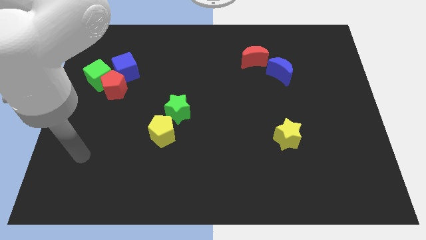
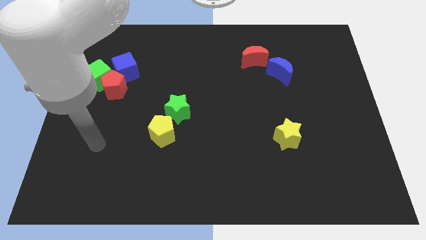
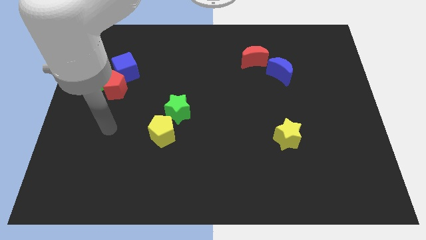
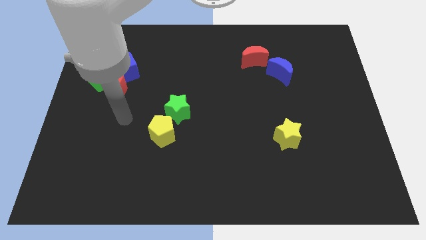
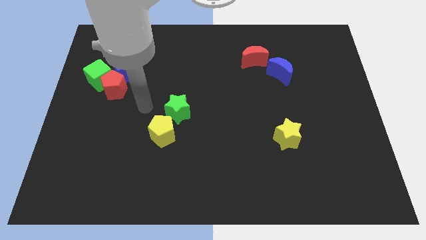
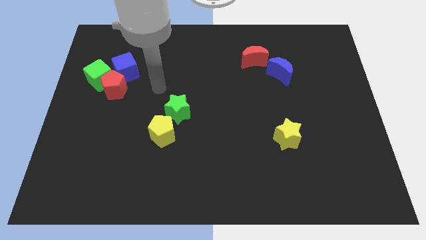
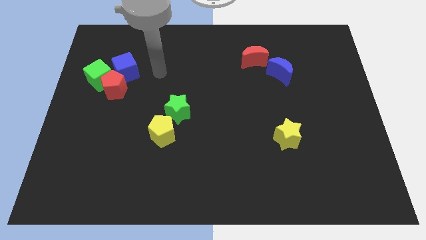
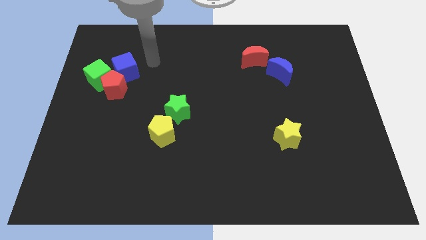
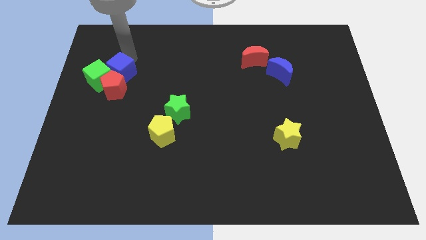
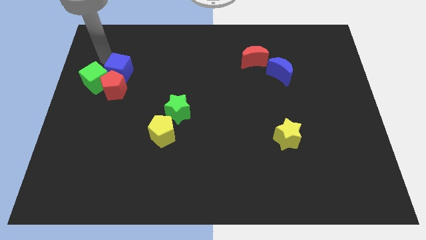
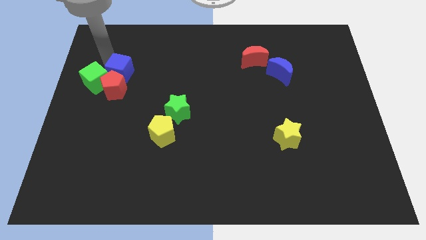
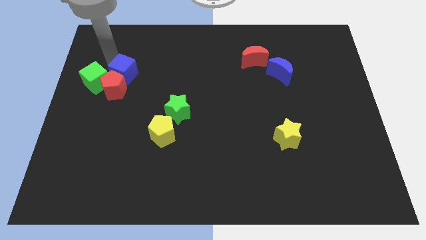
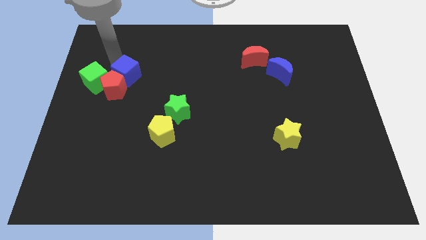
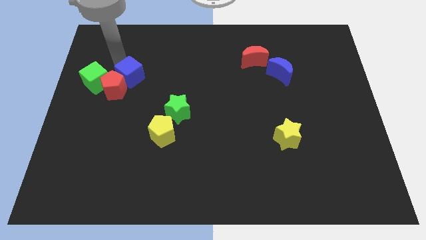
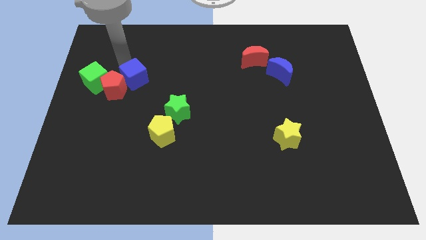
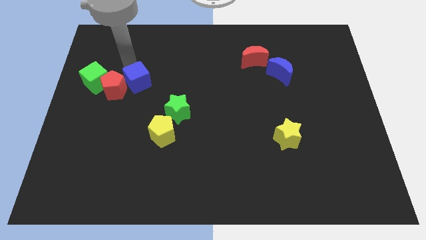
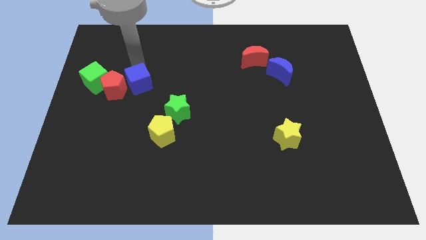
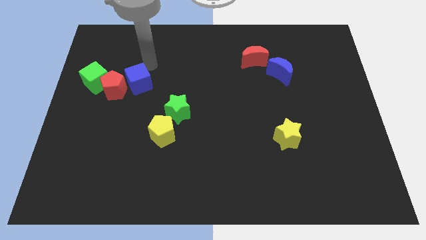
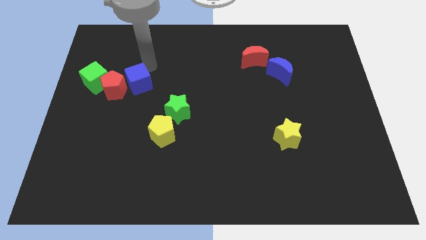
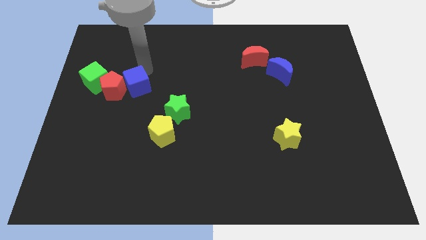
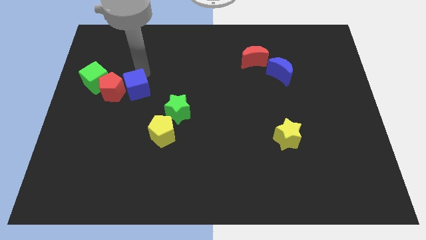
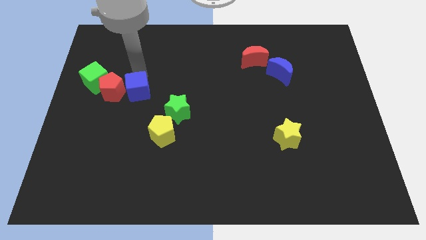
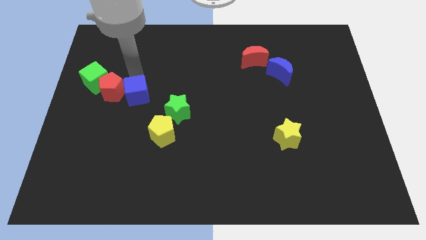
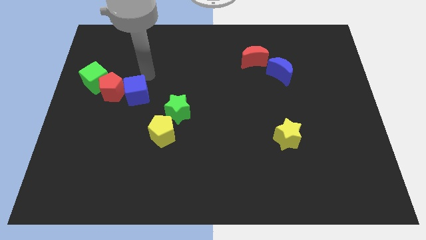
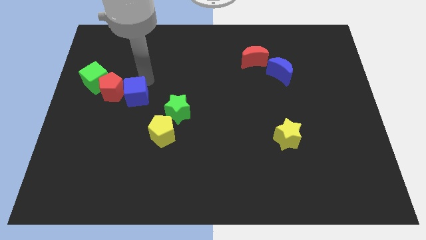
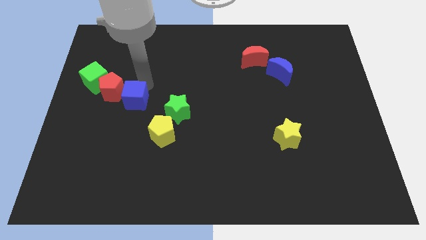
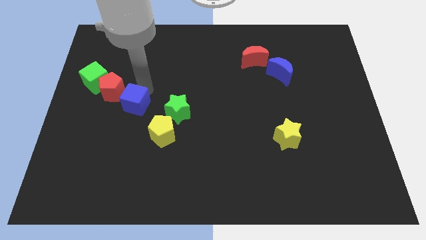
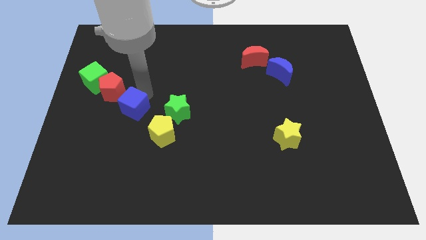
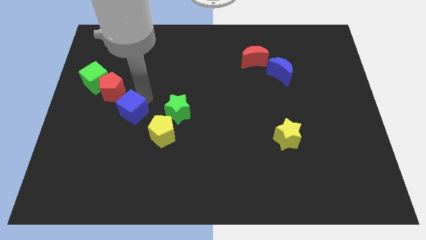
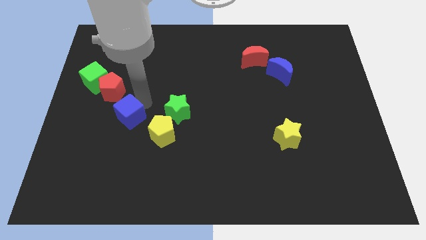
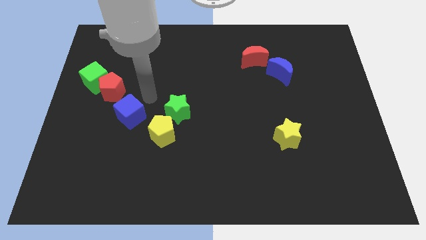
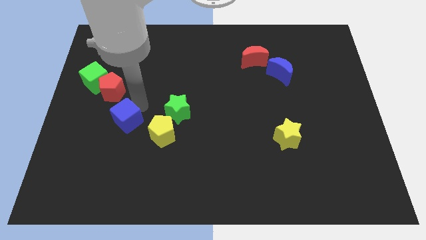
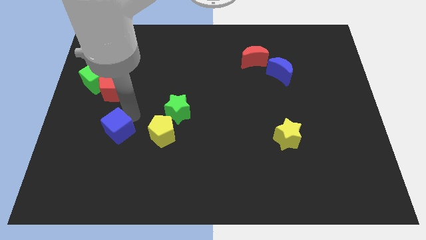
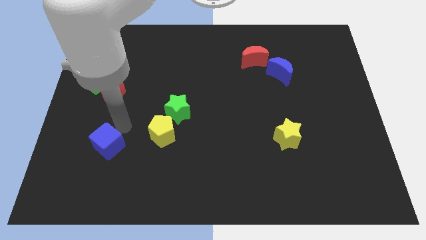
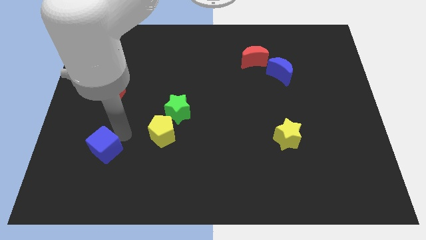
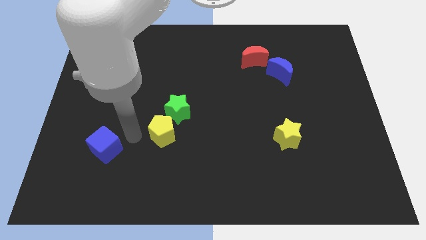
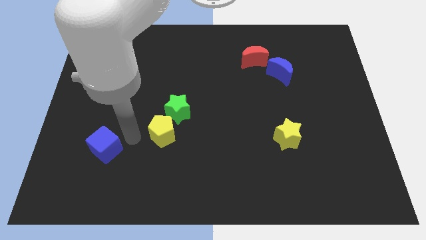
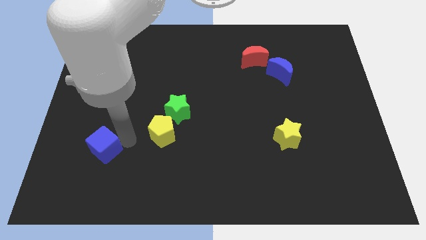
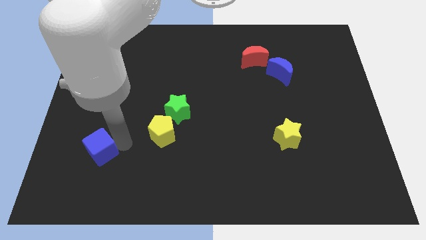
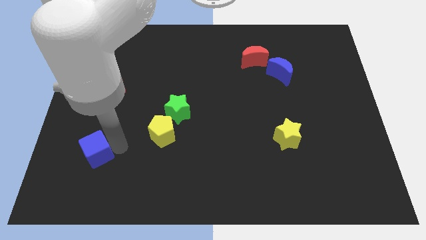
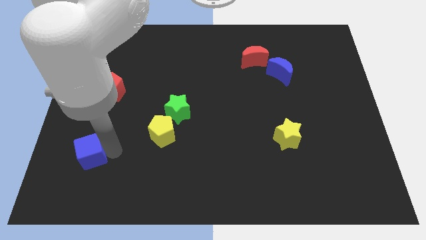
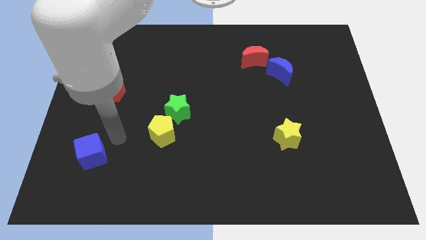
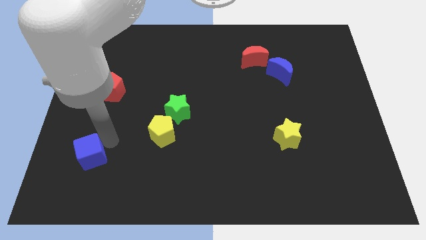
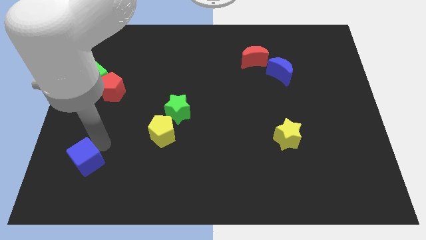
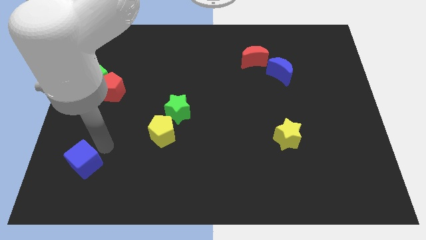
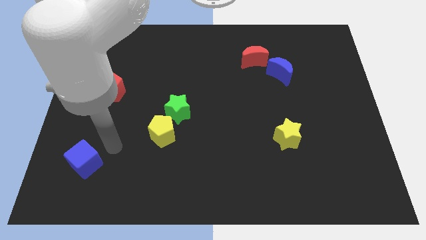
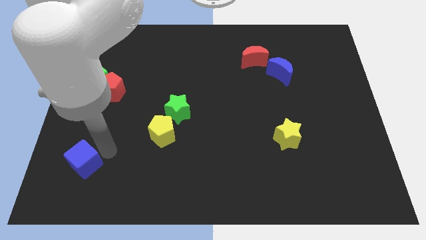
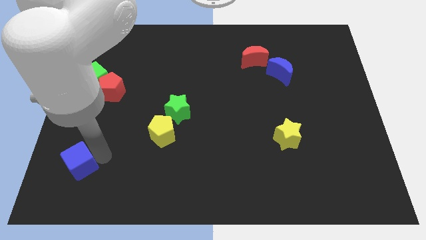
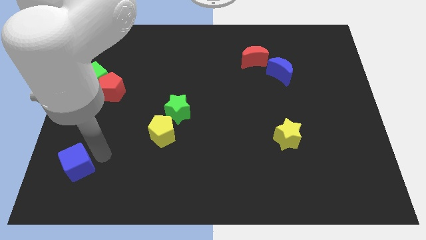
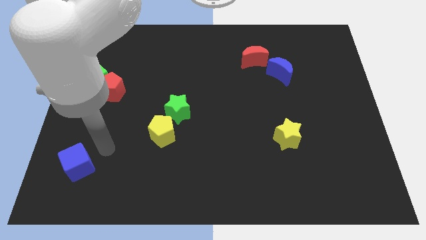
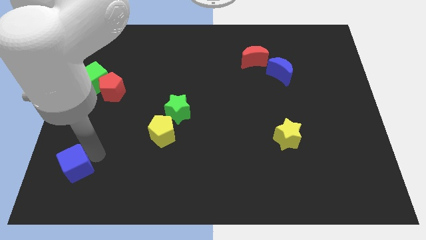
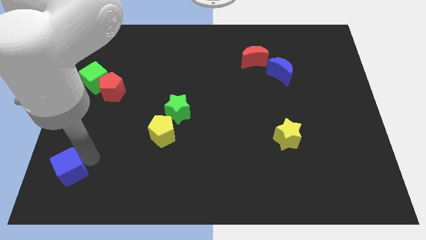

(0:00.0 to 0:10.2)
move the blue cube to the bottom left of the board

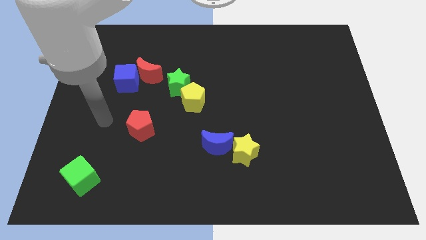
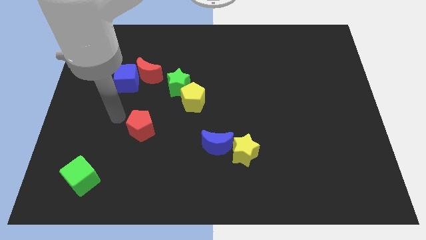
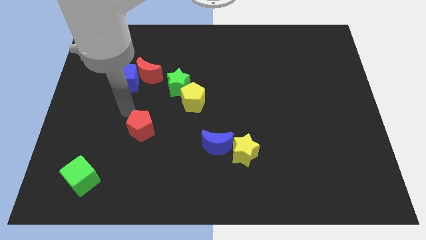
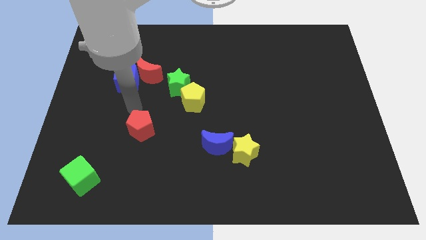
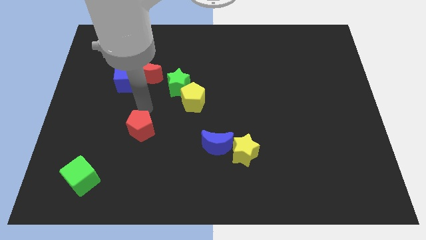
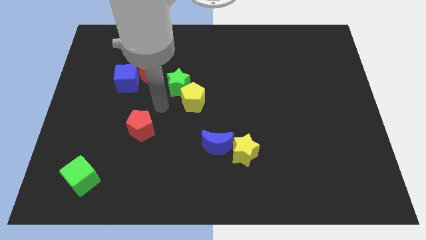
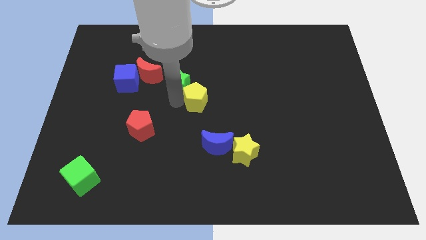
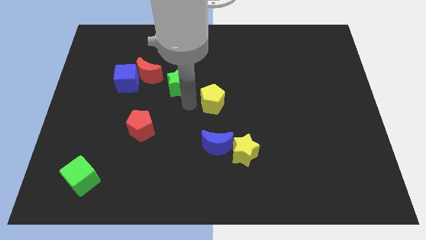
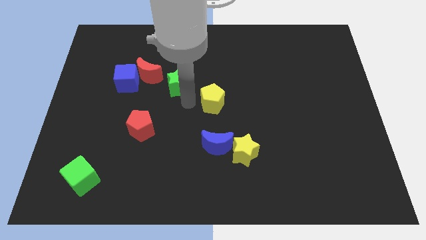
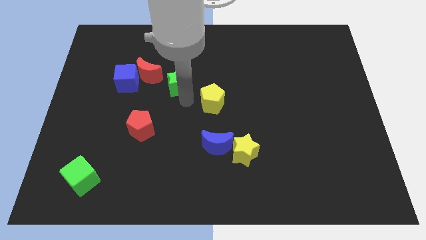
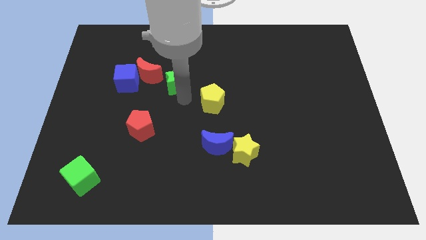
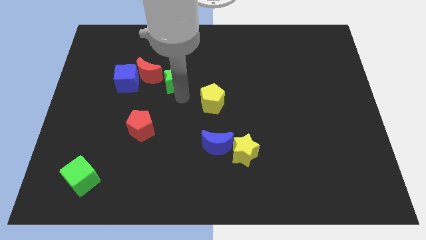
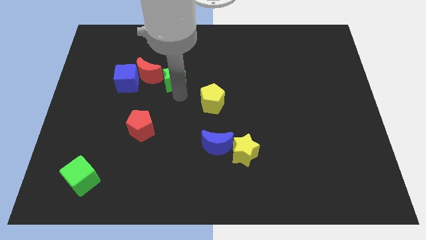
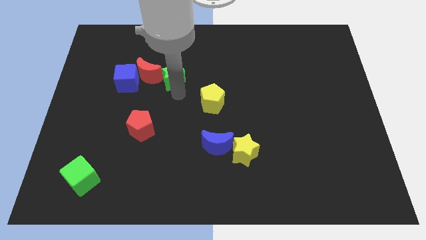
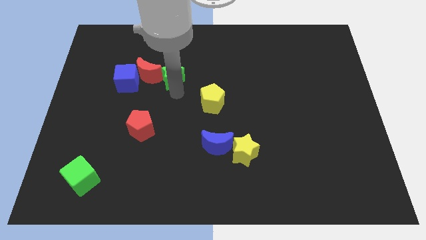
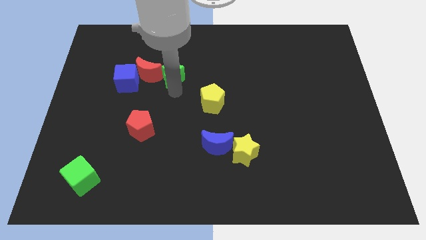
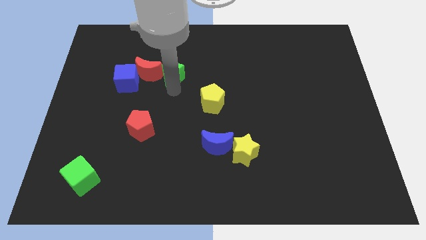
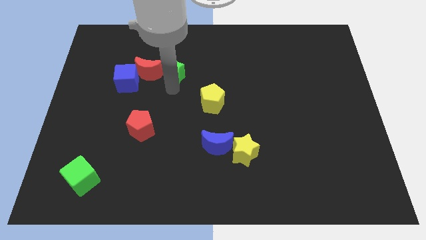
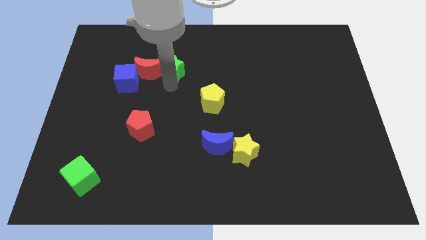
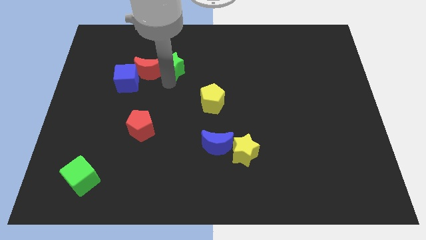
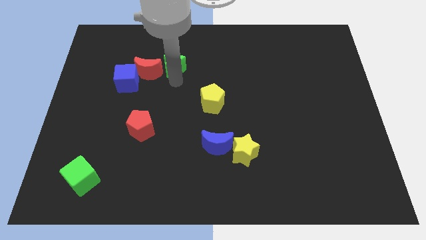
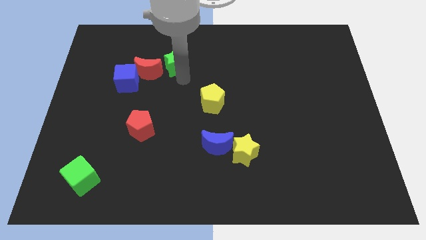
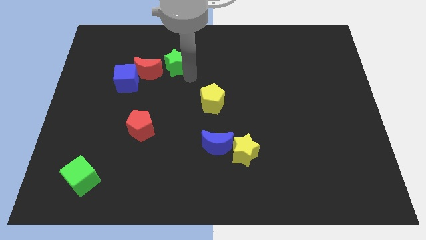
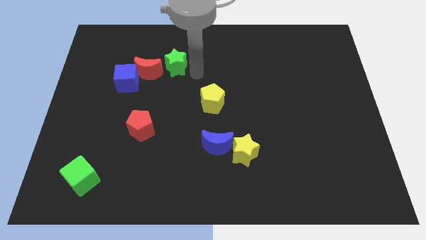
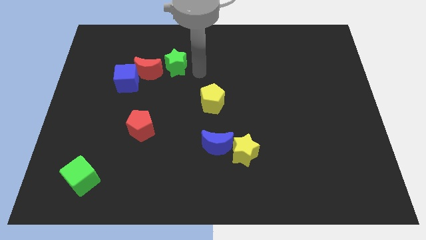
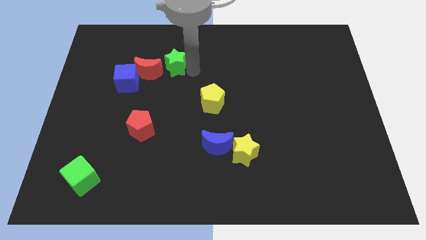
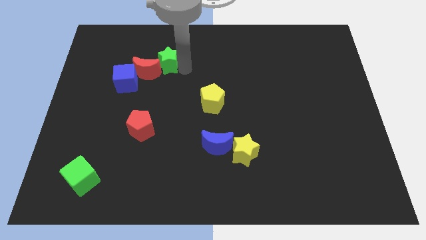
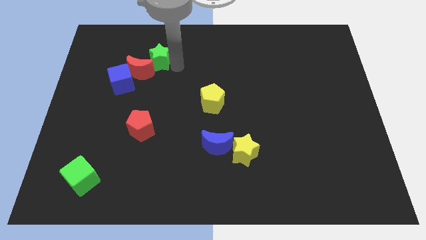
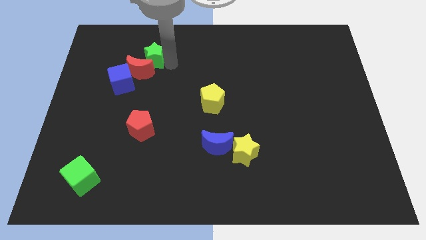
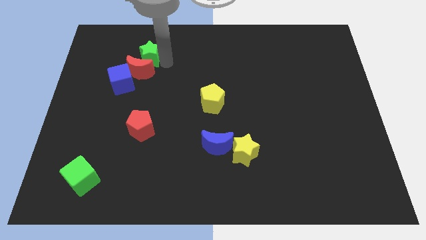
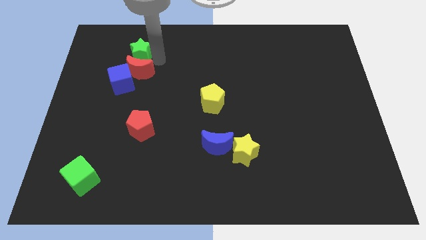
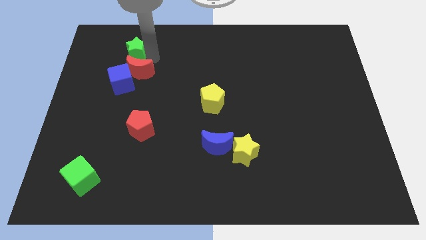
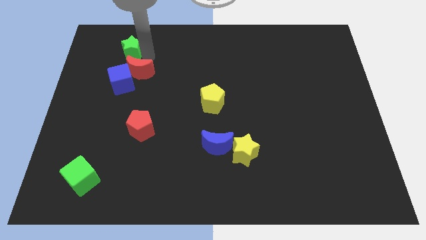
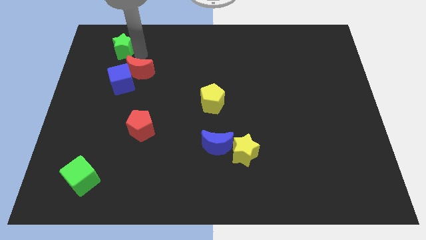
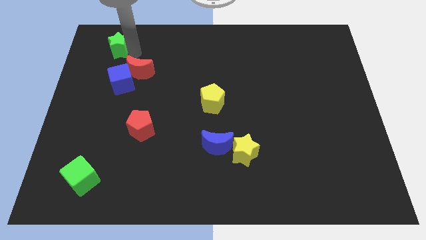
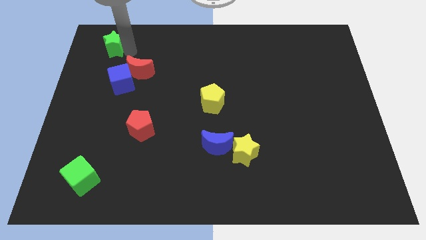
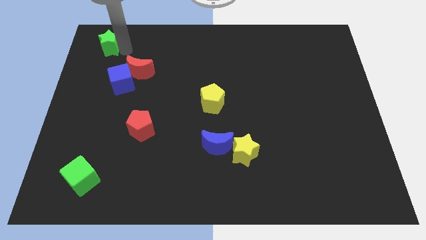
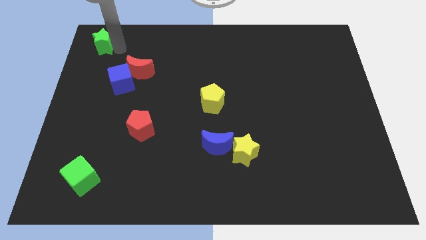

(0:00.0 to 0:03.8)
put the green star to the top left corner
